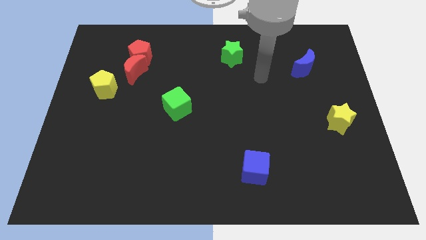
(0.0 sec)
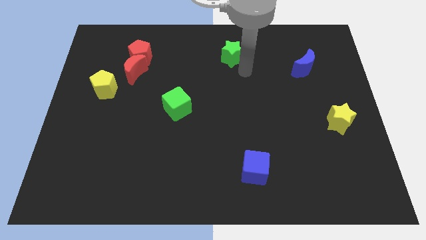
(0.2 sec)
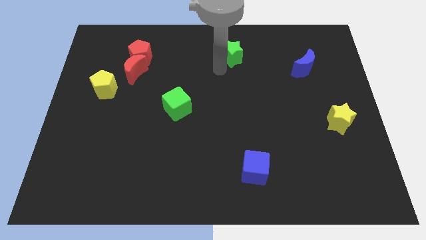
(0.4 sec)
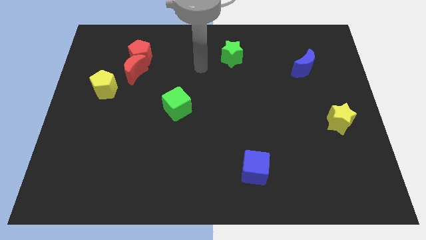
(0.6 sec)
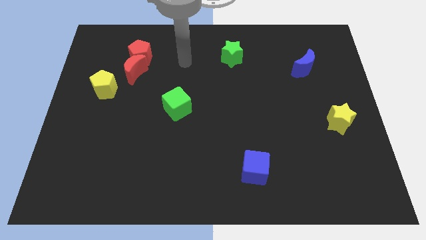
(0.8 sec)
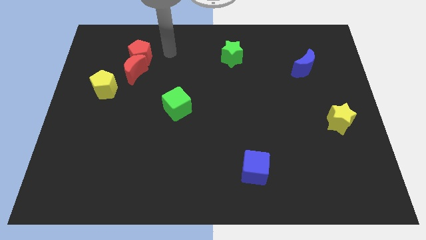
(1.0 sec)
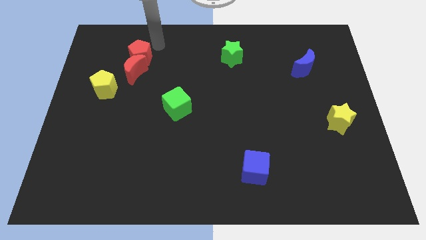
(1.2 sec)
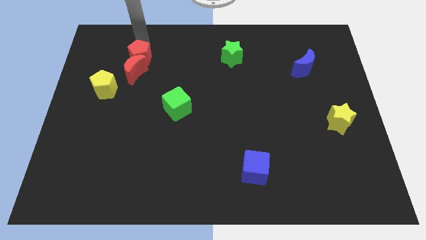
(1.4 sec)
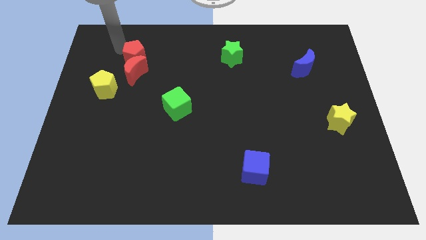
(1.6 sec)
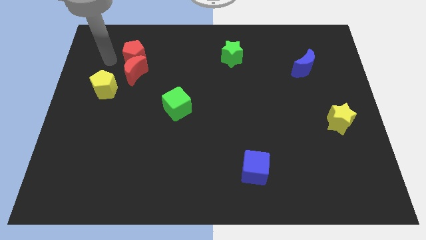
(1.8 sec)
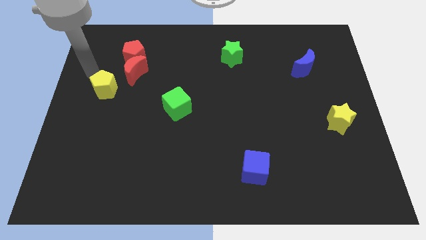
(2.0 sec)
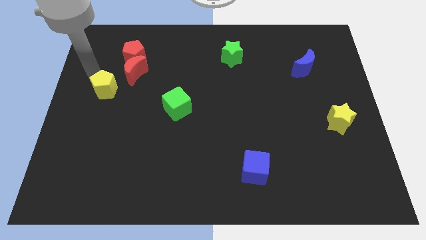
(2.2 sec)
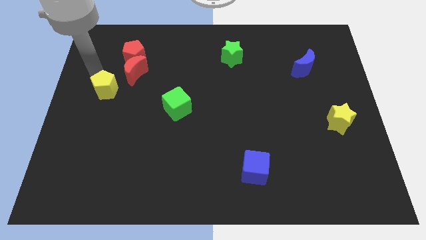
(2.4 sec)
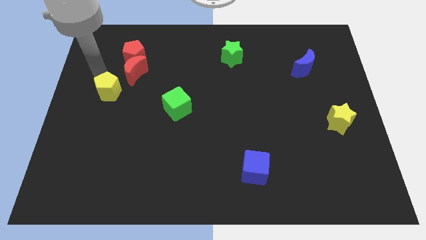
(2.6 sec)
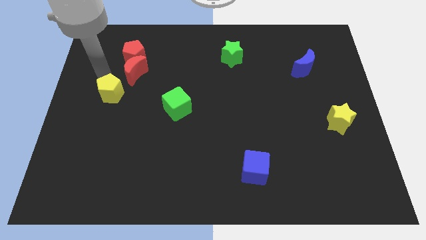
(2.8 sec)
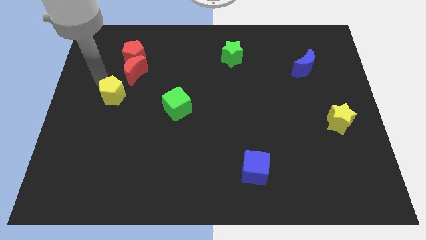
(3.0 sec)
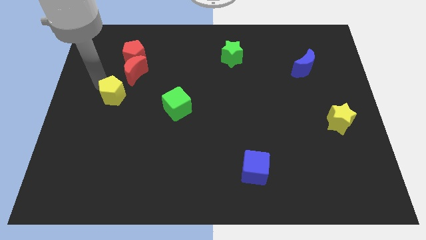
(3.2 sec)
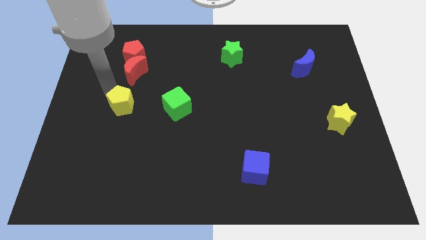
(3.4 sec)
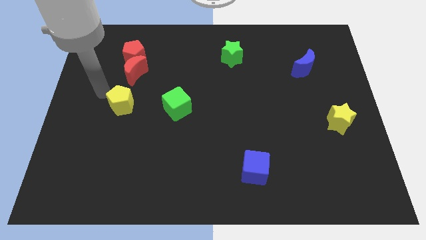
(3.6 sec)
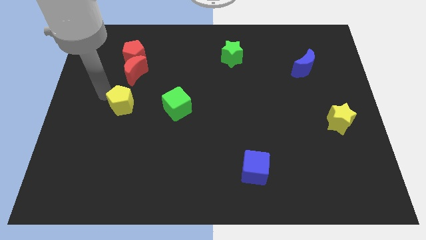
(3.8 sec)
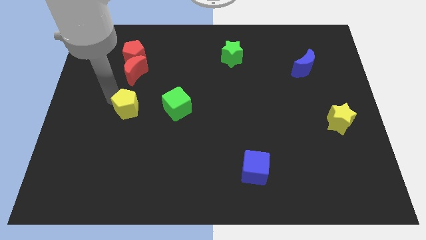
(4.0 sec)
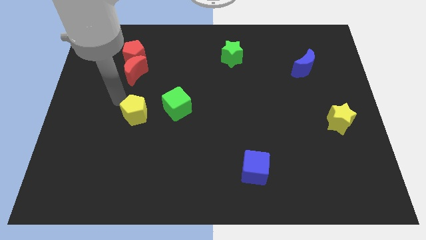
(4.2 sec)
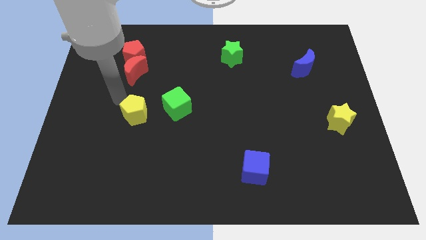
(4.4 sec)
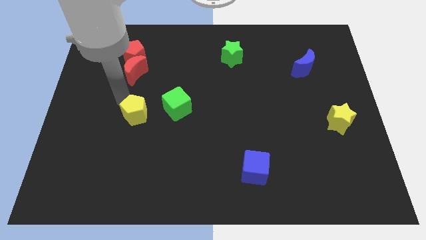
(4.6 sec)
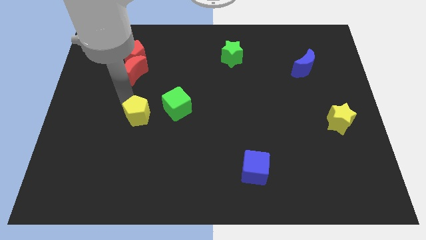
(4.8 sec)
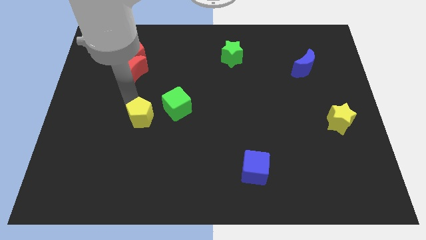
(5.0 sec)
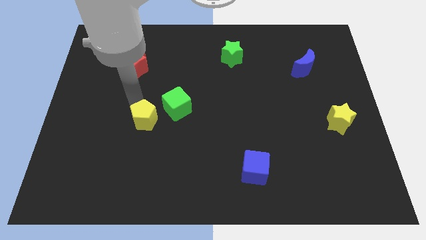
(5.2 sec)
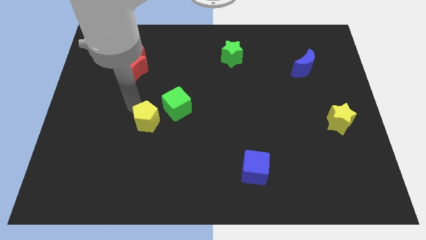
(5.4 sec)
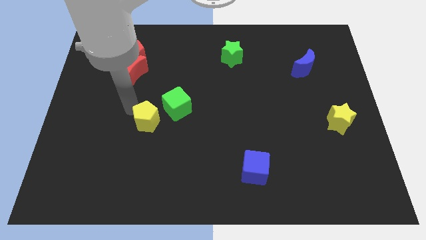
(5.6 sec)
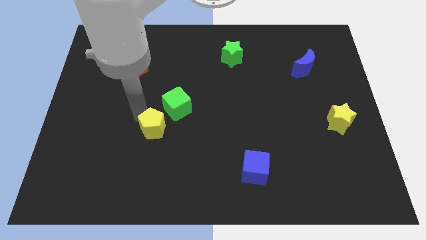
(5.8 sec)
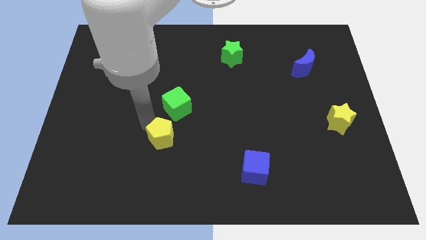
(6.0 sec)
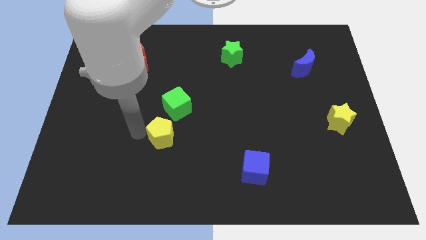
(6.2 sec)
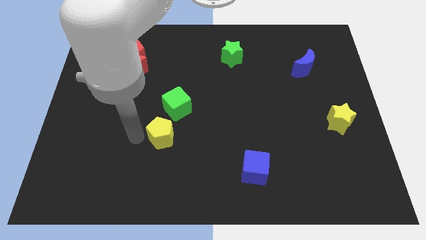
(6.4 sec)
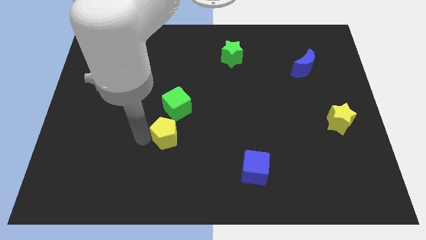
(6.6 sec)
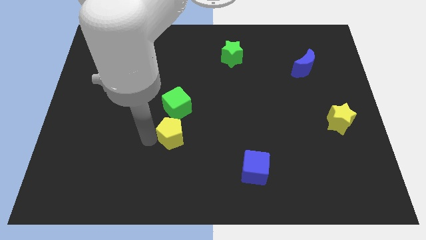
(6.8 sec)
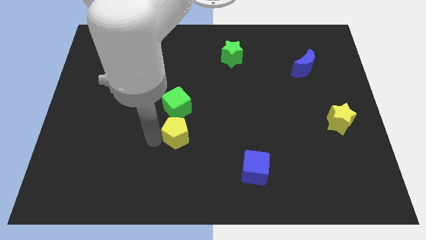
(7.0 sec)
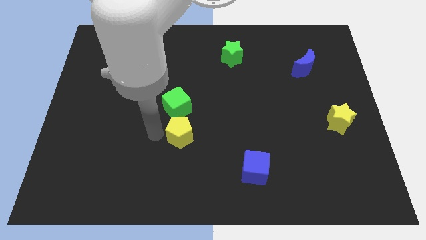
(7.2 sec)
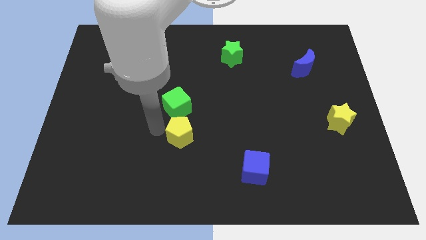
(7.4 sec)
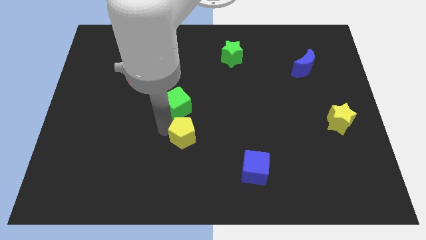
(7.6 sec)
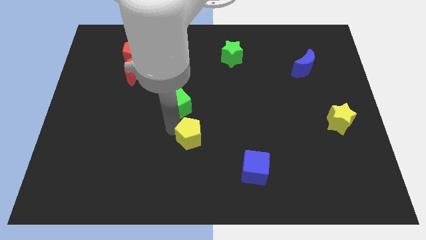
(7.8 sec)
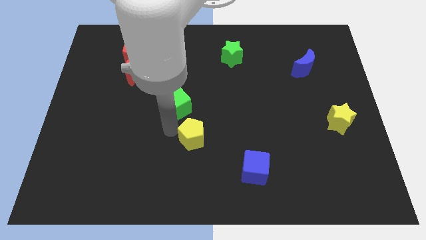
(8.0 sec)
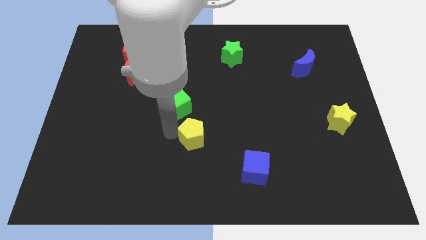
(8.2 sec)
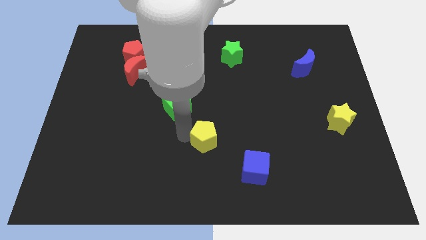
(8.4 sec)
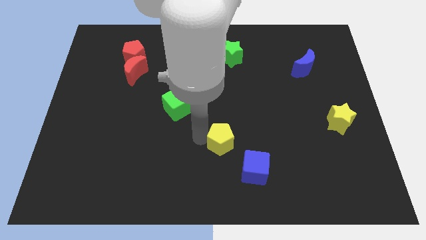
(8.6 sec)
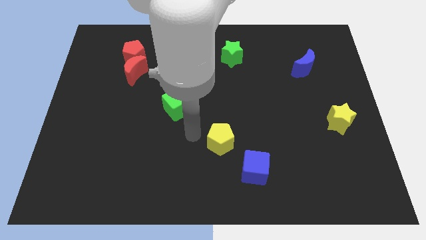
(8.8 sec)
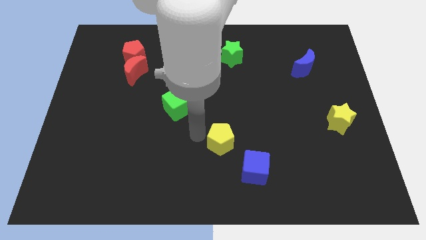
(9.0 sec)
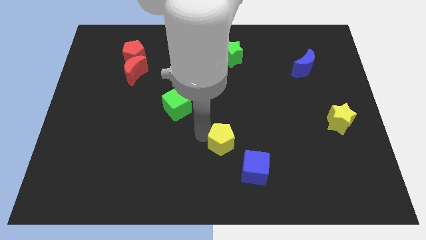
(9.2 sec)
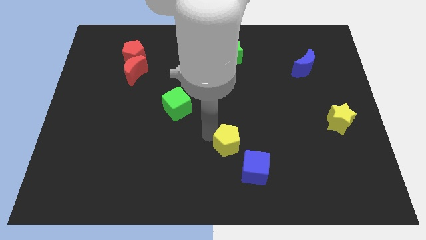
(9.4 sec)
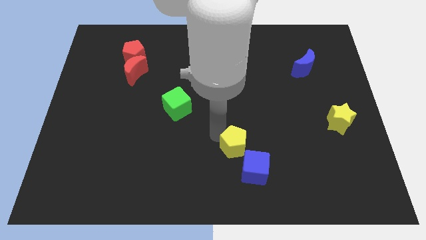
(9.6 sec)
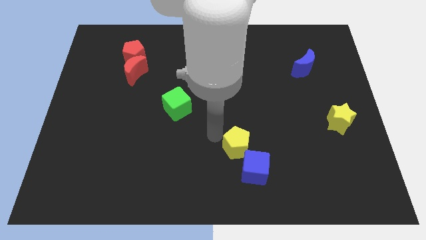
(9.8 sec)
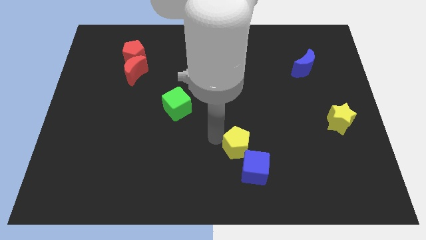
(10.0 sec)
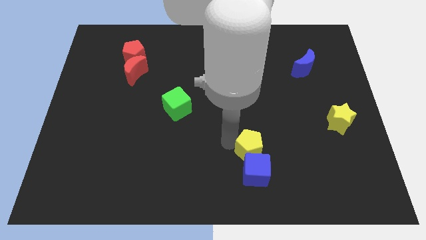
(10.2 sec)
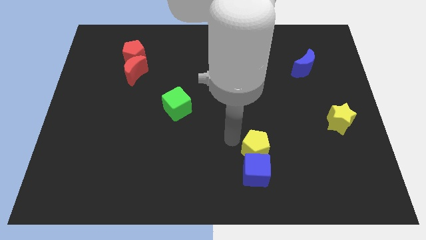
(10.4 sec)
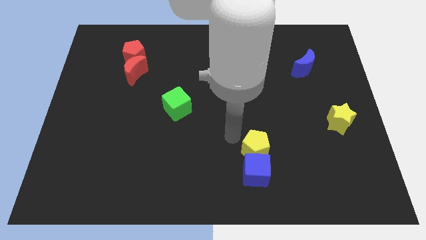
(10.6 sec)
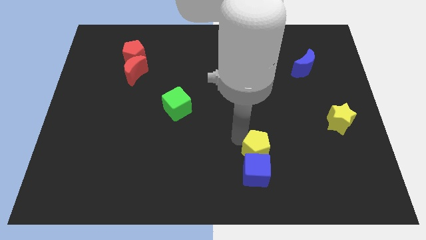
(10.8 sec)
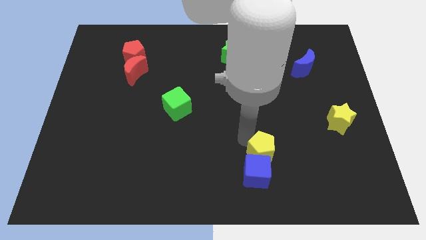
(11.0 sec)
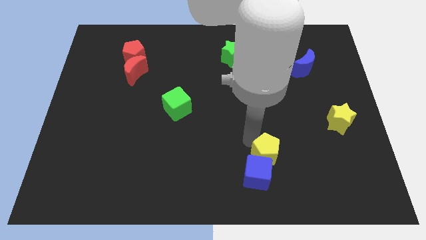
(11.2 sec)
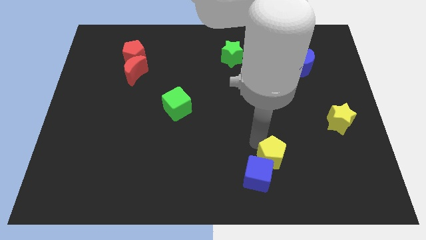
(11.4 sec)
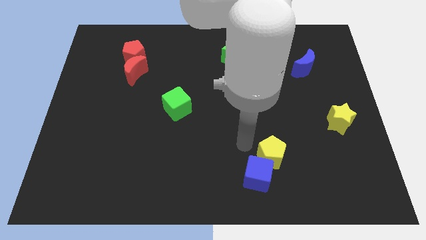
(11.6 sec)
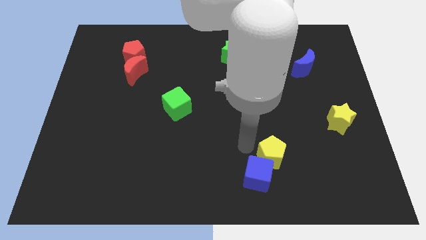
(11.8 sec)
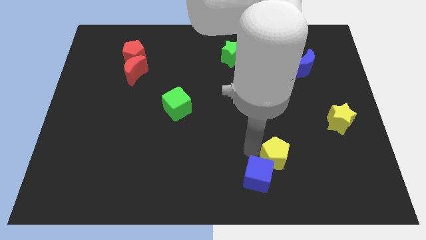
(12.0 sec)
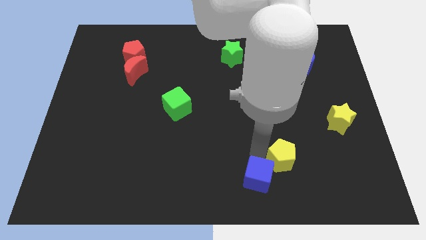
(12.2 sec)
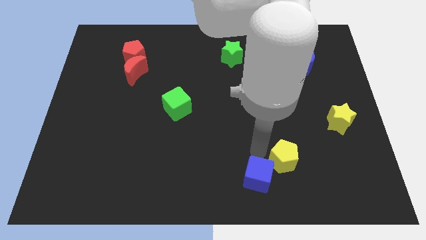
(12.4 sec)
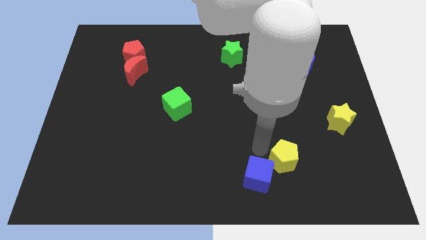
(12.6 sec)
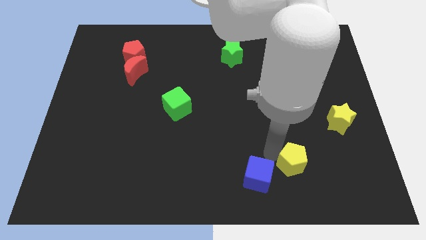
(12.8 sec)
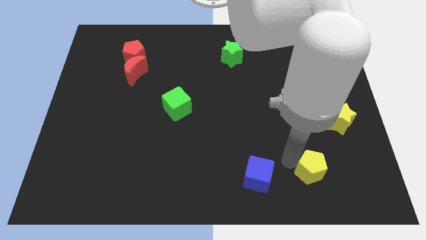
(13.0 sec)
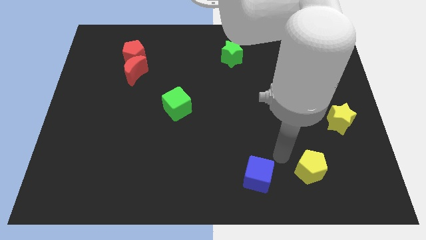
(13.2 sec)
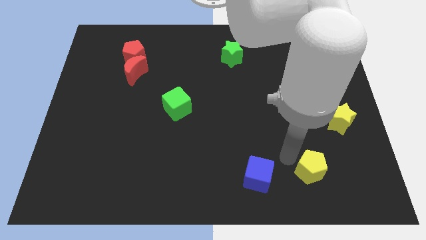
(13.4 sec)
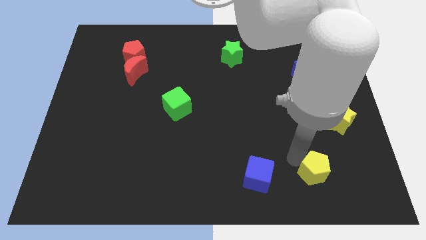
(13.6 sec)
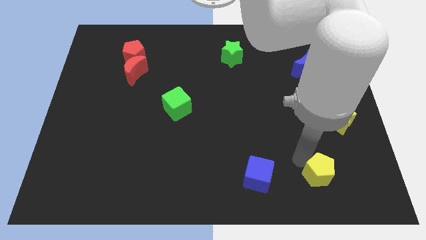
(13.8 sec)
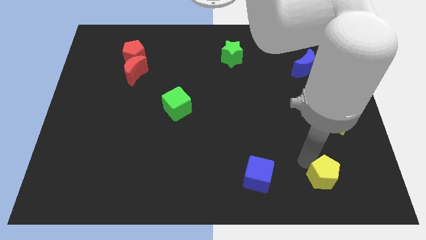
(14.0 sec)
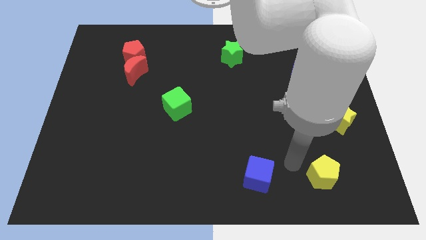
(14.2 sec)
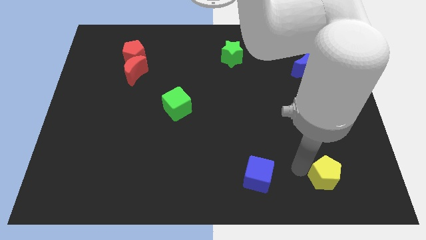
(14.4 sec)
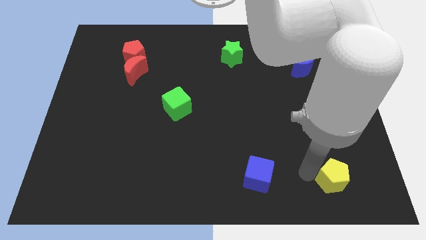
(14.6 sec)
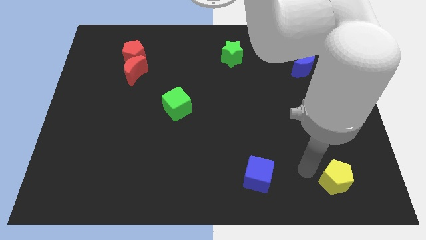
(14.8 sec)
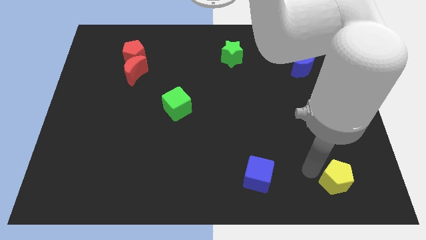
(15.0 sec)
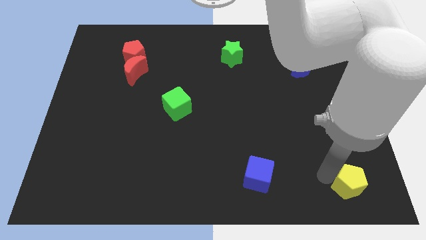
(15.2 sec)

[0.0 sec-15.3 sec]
push the yellow pentagon to the bottom right
